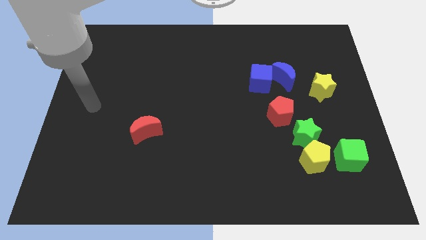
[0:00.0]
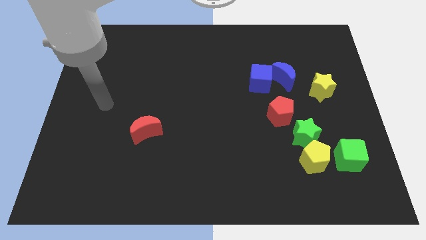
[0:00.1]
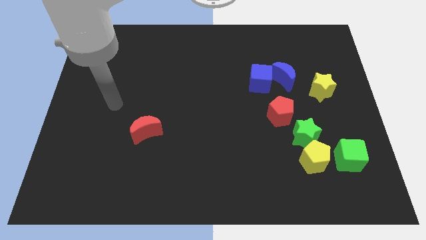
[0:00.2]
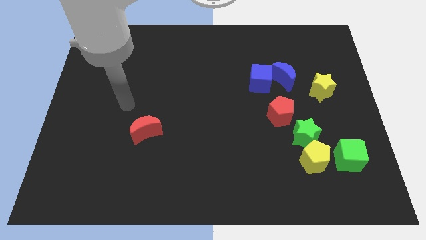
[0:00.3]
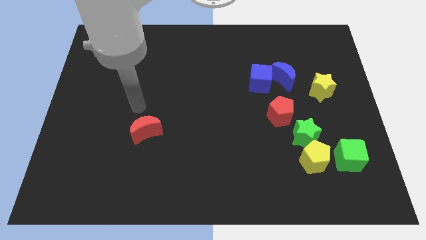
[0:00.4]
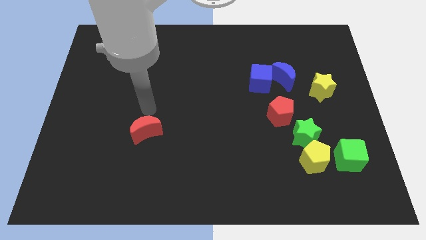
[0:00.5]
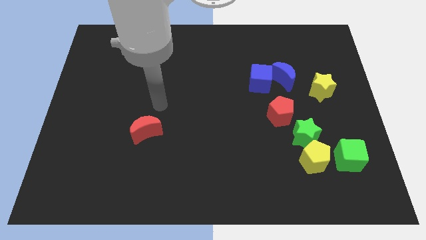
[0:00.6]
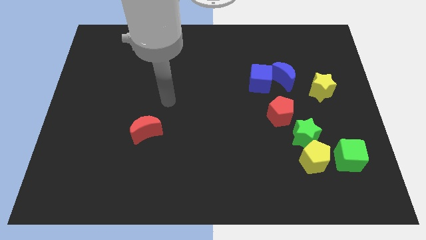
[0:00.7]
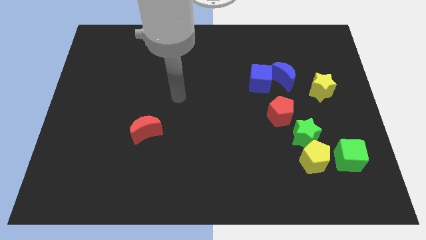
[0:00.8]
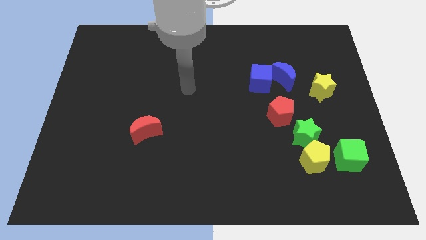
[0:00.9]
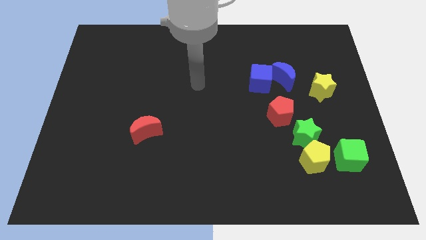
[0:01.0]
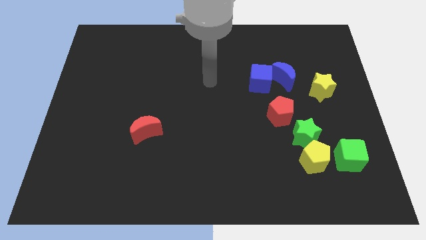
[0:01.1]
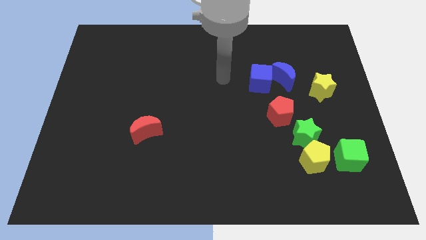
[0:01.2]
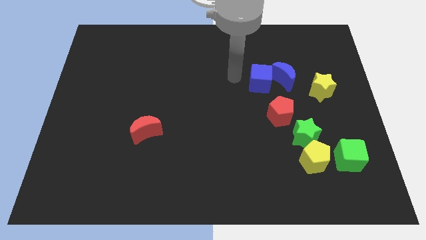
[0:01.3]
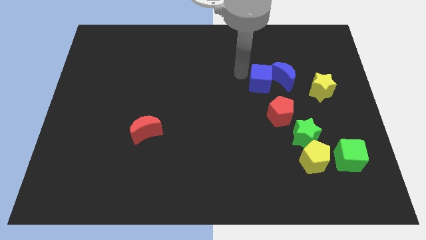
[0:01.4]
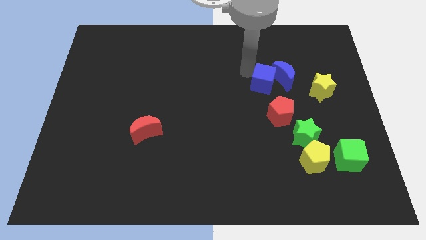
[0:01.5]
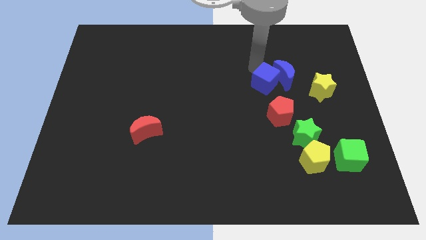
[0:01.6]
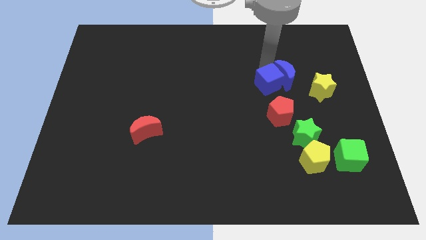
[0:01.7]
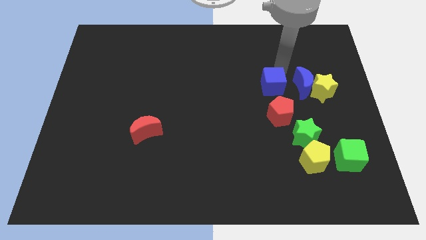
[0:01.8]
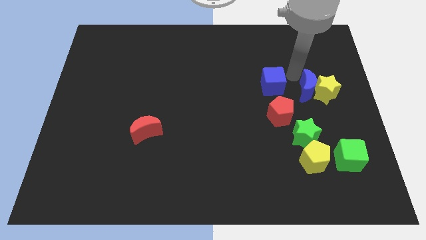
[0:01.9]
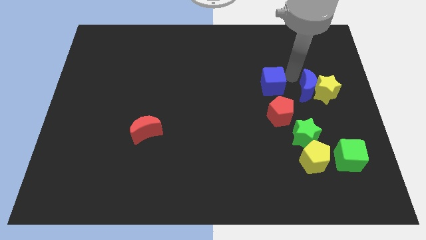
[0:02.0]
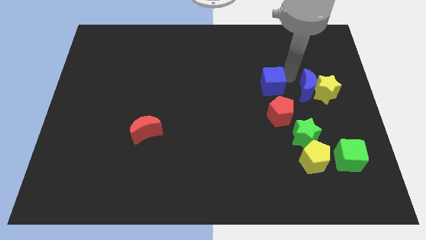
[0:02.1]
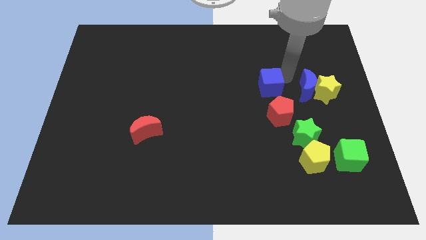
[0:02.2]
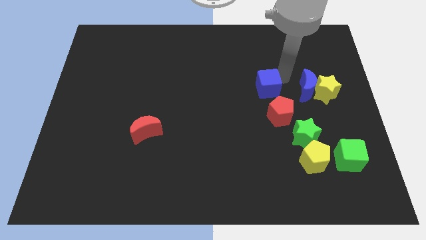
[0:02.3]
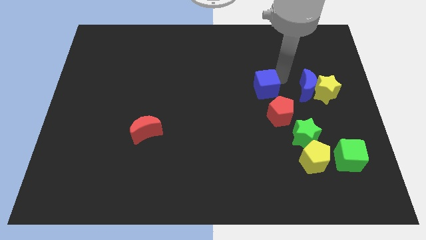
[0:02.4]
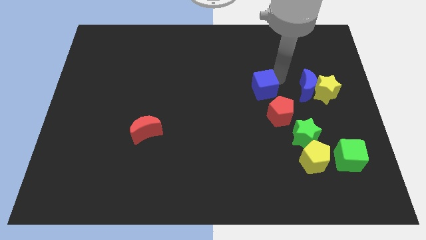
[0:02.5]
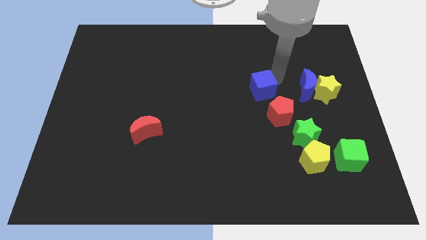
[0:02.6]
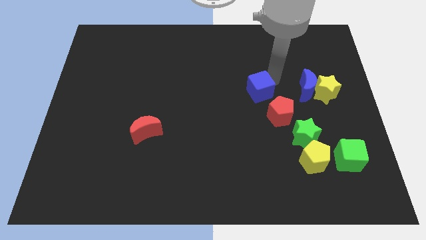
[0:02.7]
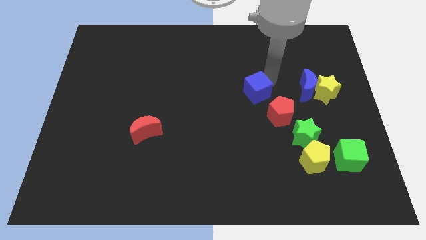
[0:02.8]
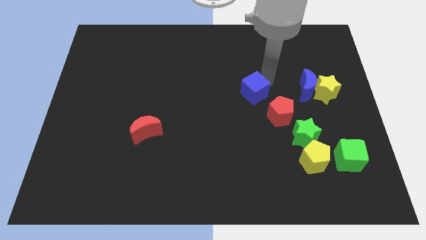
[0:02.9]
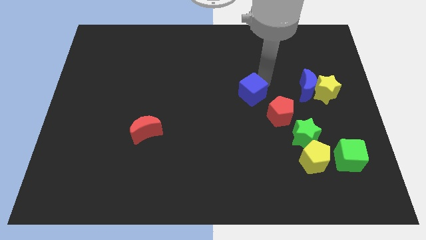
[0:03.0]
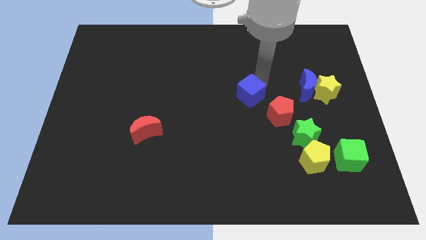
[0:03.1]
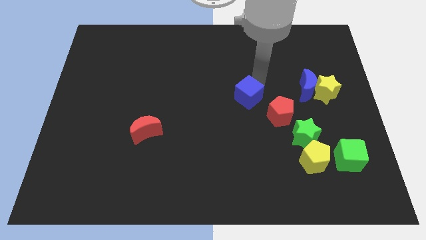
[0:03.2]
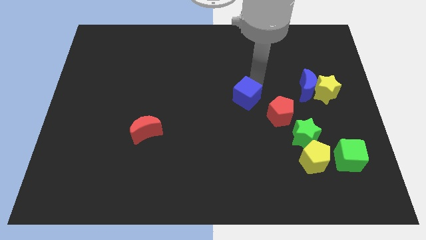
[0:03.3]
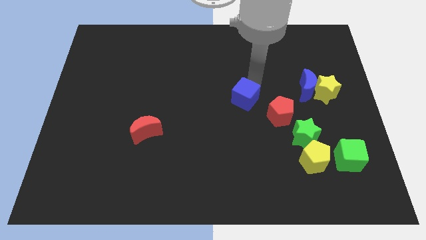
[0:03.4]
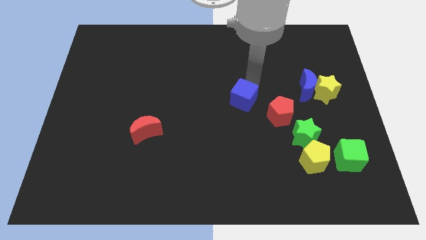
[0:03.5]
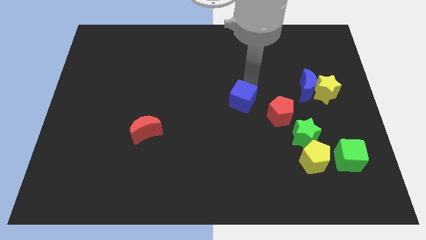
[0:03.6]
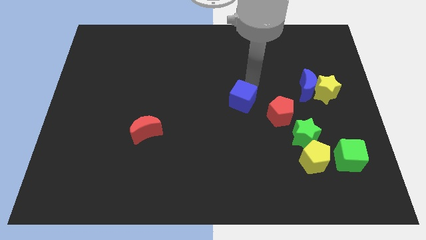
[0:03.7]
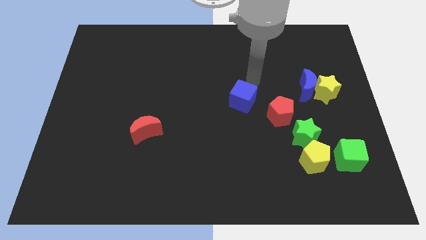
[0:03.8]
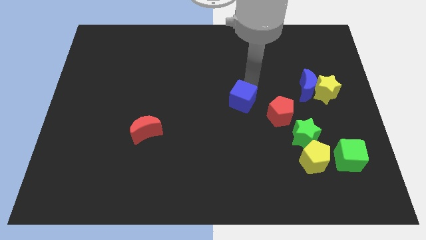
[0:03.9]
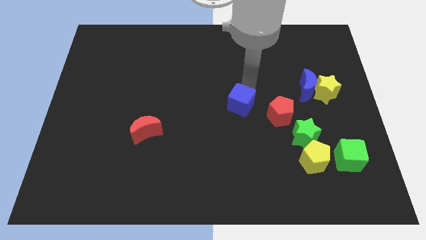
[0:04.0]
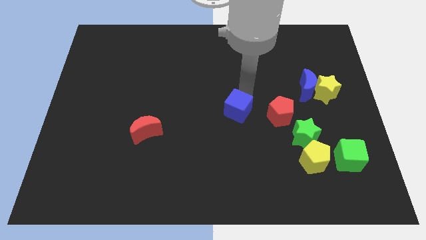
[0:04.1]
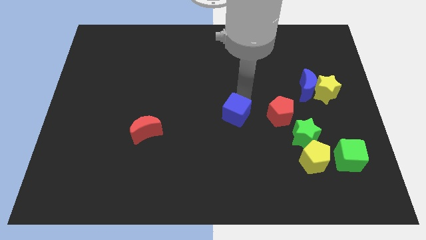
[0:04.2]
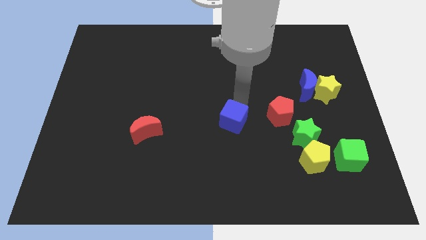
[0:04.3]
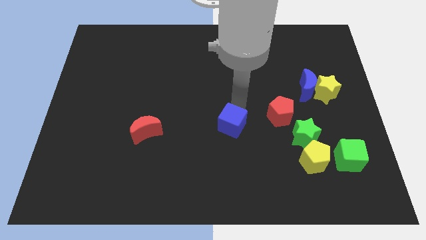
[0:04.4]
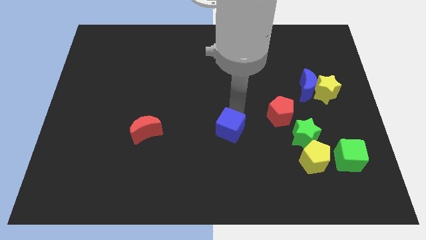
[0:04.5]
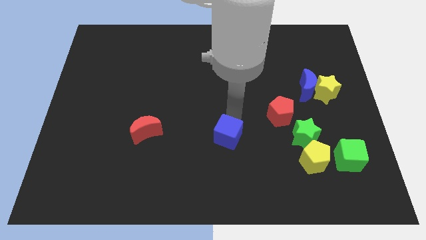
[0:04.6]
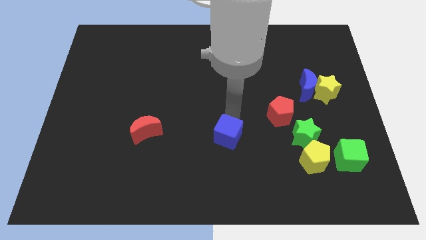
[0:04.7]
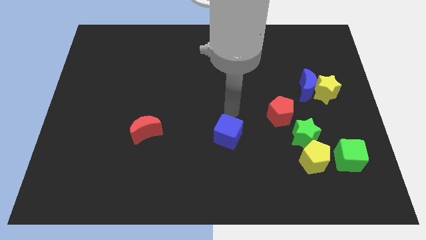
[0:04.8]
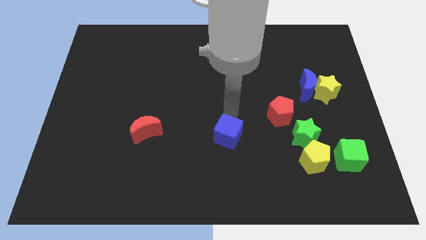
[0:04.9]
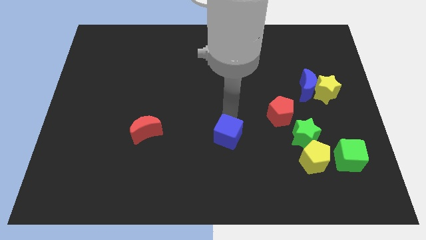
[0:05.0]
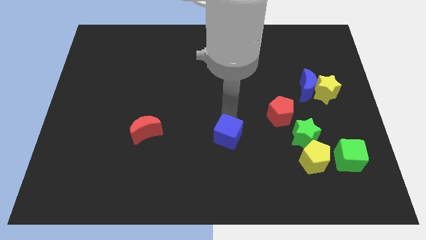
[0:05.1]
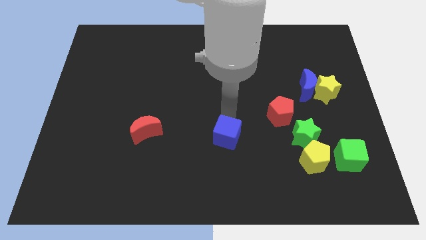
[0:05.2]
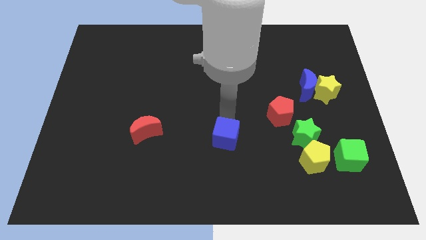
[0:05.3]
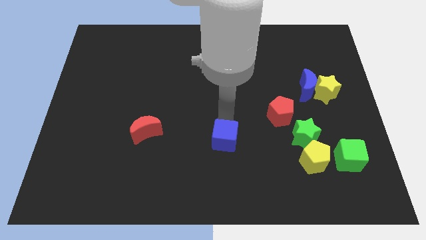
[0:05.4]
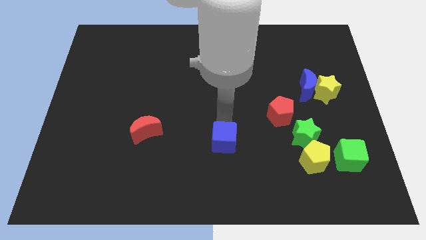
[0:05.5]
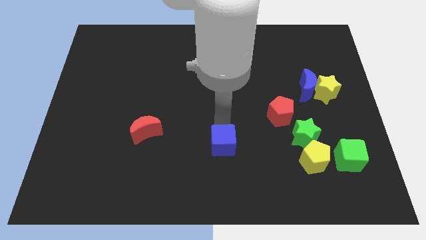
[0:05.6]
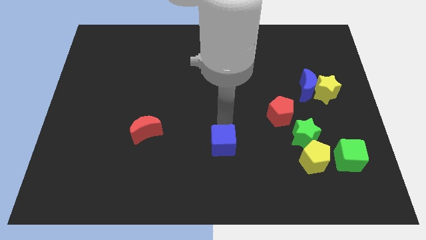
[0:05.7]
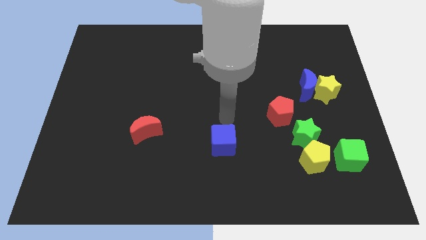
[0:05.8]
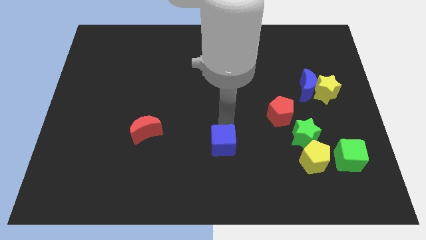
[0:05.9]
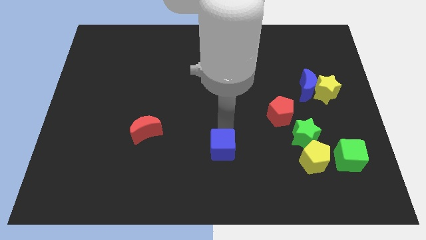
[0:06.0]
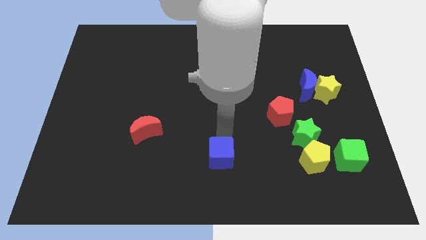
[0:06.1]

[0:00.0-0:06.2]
put the blue cube to the bottom side

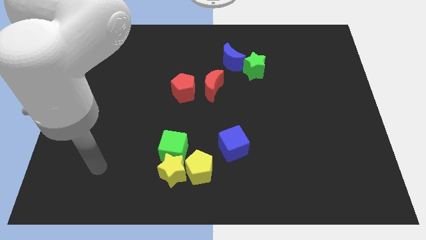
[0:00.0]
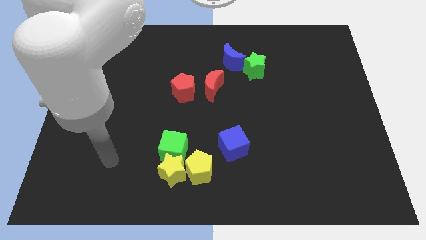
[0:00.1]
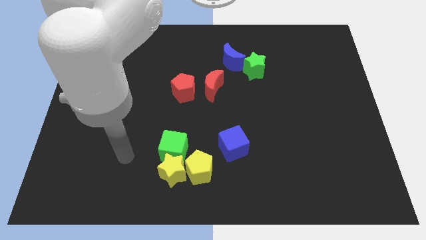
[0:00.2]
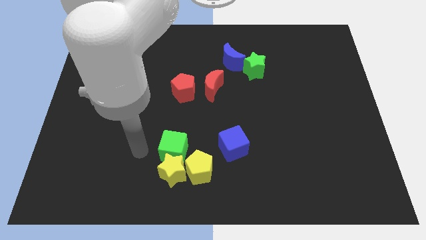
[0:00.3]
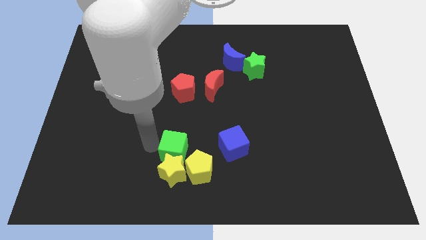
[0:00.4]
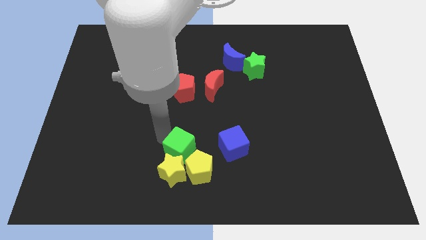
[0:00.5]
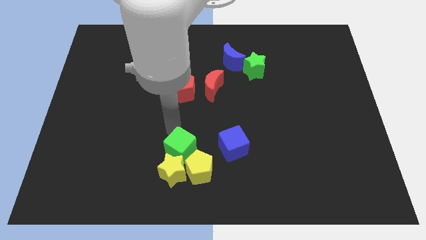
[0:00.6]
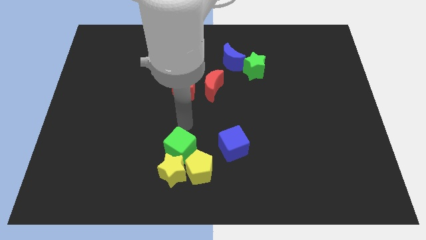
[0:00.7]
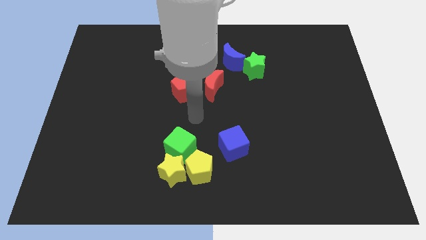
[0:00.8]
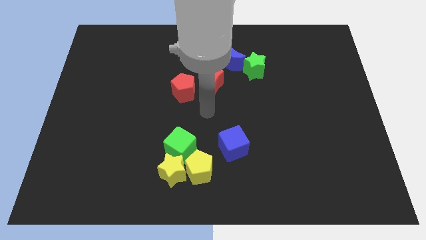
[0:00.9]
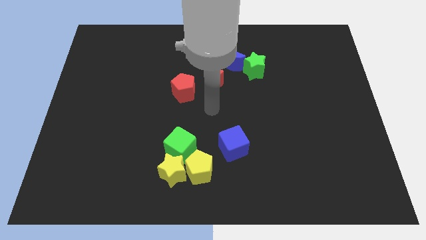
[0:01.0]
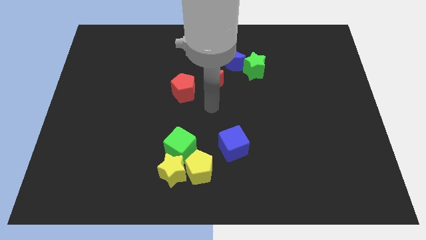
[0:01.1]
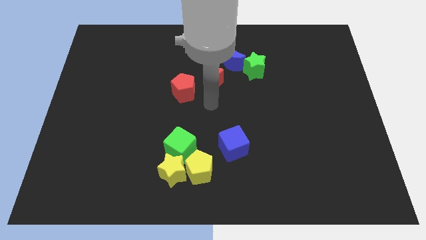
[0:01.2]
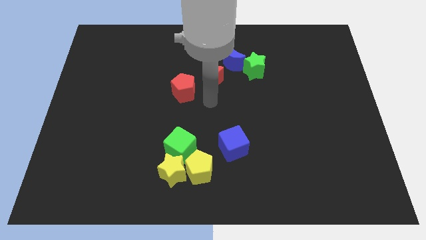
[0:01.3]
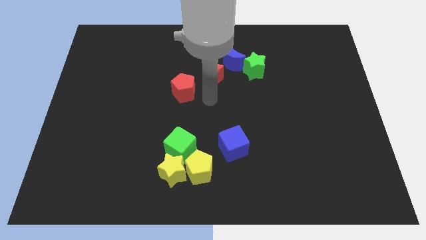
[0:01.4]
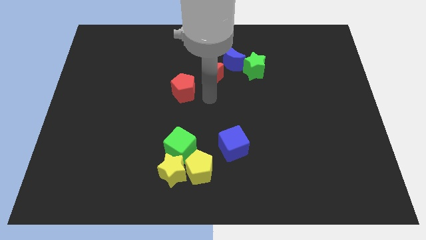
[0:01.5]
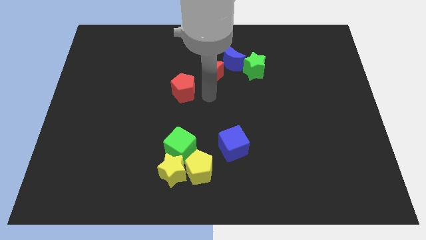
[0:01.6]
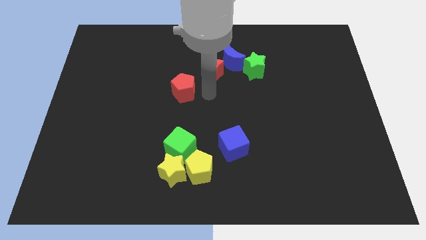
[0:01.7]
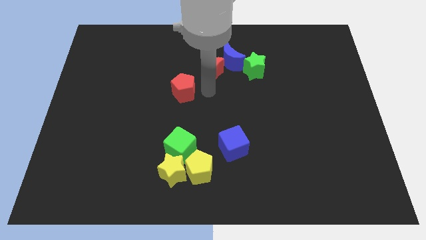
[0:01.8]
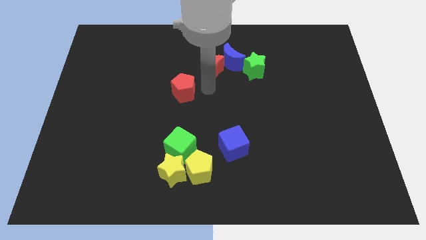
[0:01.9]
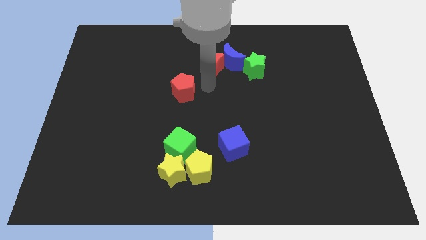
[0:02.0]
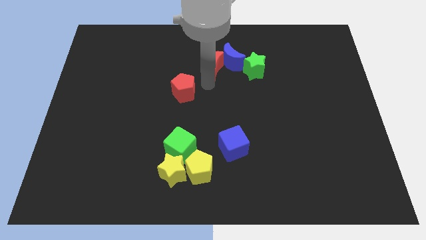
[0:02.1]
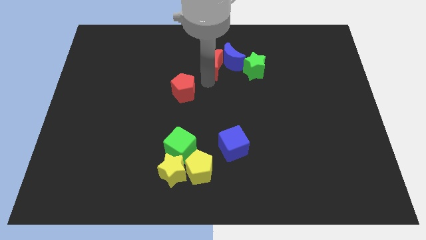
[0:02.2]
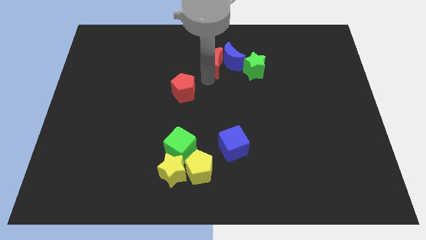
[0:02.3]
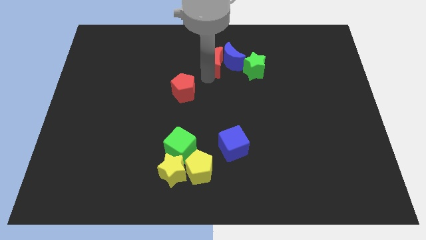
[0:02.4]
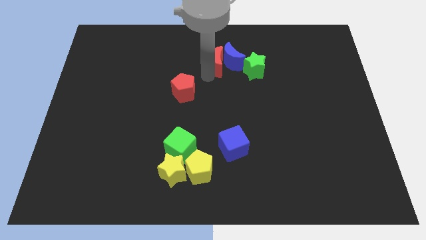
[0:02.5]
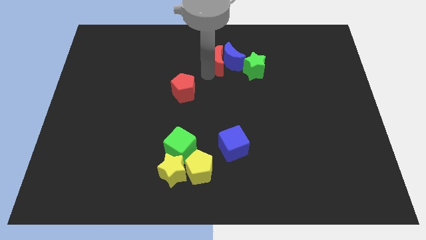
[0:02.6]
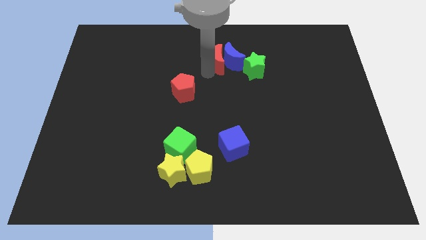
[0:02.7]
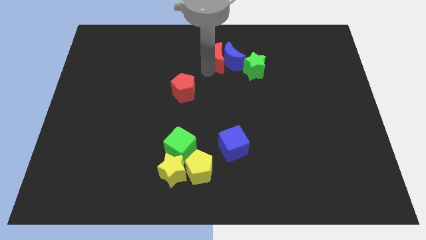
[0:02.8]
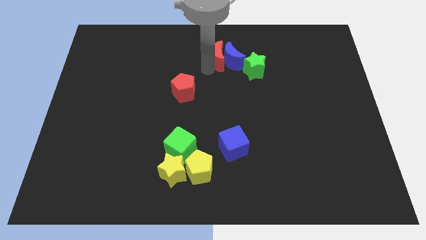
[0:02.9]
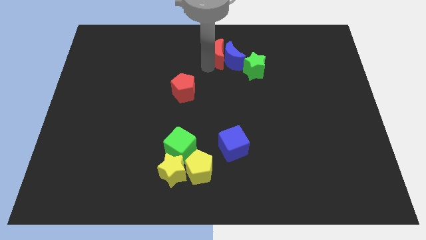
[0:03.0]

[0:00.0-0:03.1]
push the red moon to the top side
